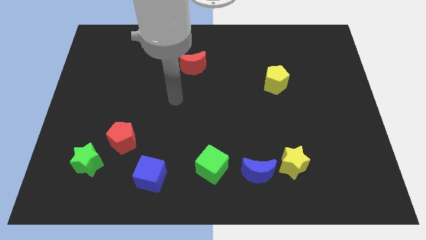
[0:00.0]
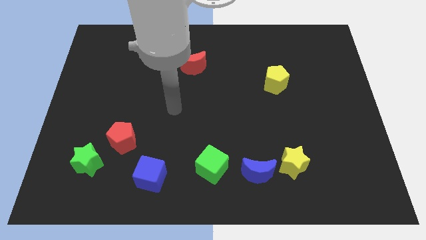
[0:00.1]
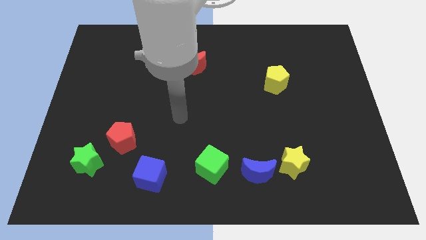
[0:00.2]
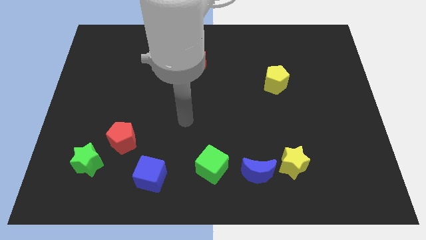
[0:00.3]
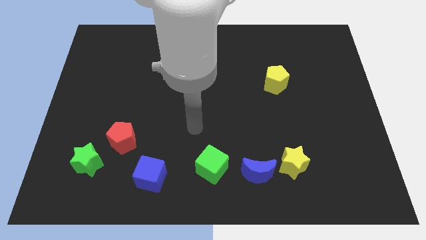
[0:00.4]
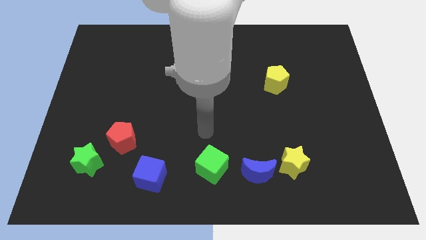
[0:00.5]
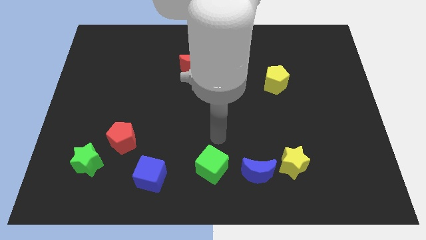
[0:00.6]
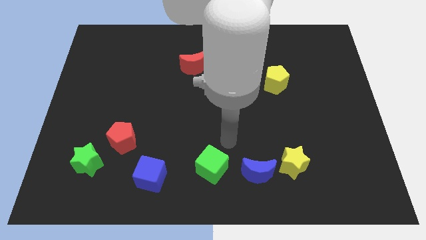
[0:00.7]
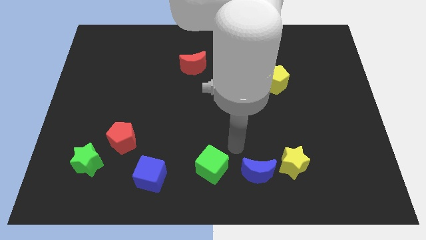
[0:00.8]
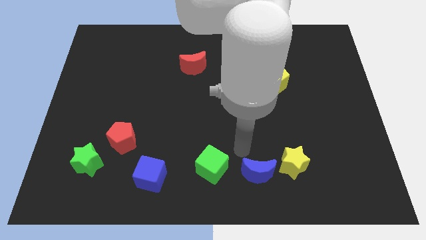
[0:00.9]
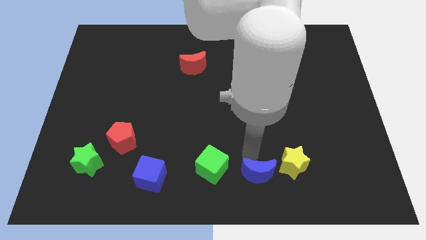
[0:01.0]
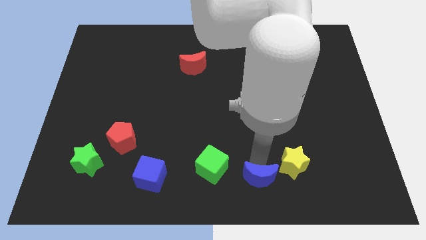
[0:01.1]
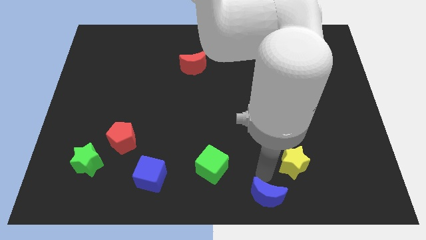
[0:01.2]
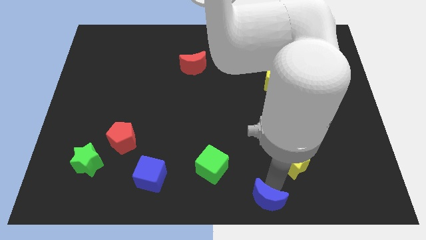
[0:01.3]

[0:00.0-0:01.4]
pull the yellow star apart from the blue moon

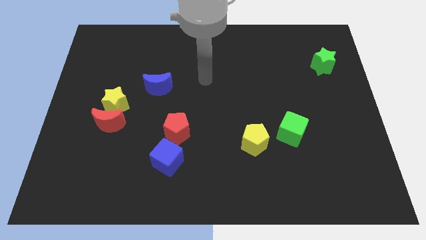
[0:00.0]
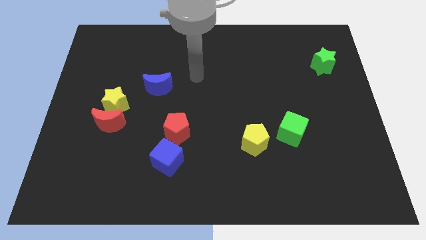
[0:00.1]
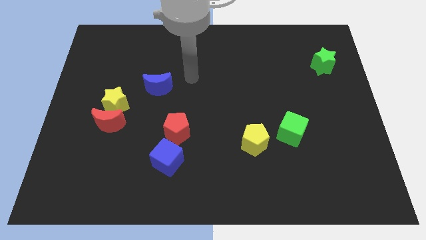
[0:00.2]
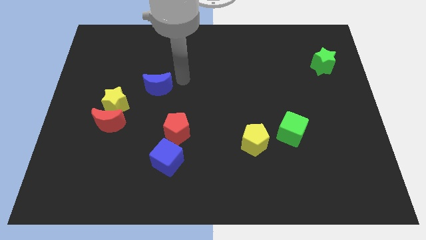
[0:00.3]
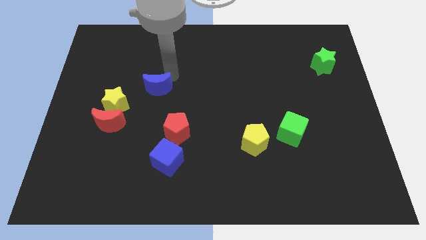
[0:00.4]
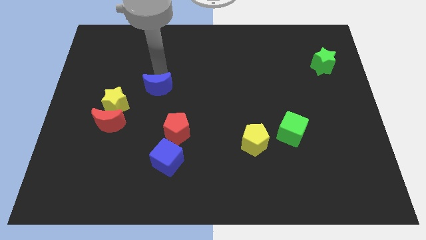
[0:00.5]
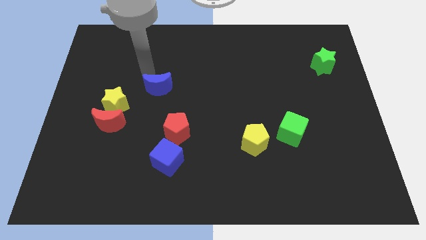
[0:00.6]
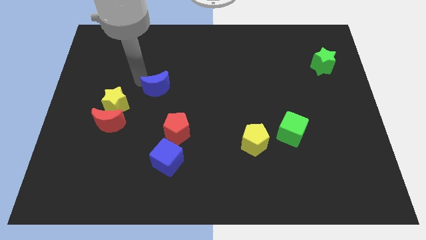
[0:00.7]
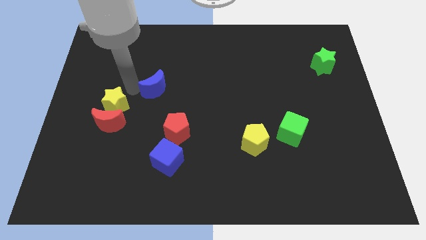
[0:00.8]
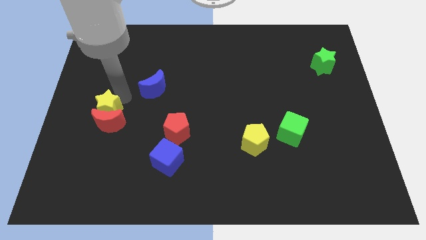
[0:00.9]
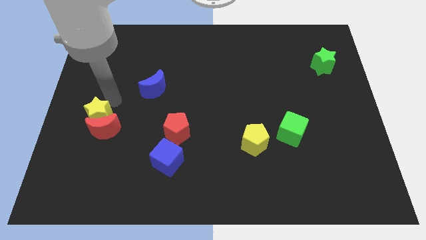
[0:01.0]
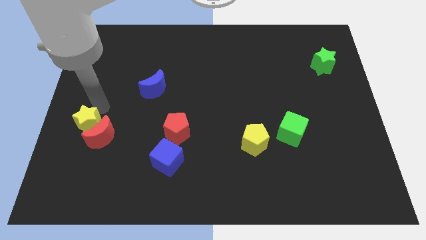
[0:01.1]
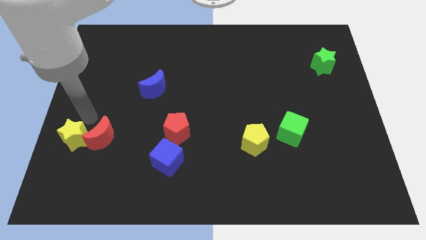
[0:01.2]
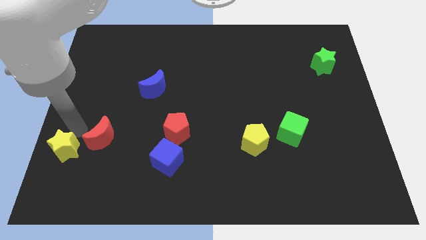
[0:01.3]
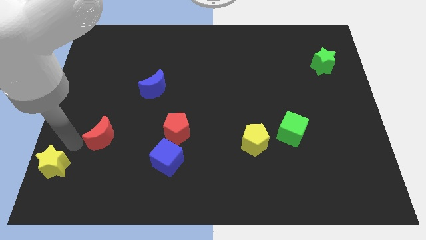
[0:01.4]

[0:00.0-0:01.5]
pull the red moon apart from the yellow star

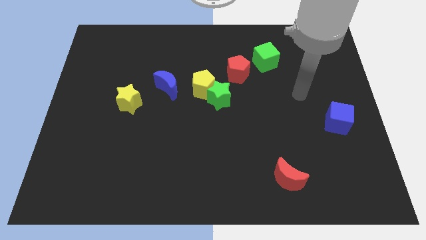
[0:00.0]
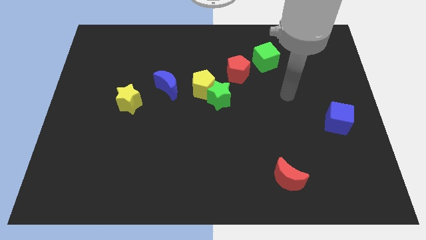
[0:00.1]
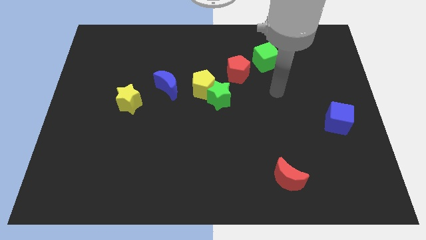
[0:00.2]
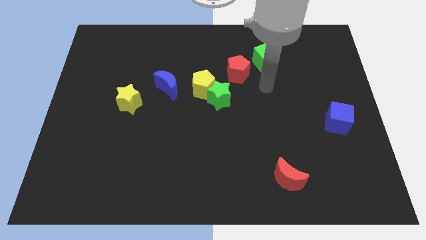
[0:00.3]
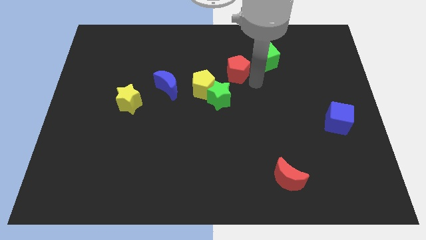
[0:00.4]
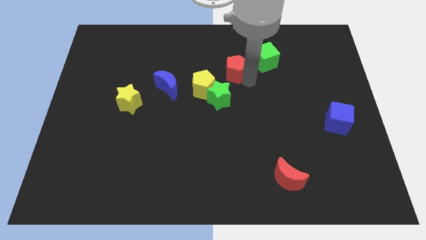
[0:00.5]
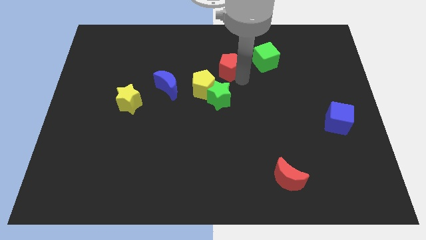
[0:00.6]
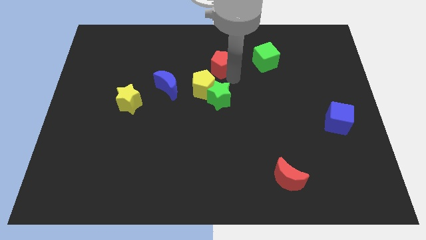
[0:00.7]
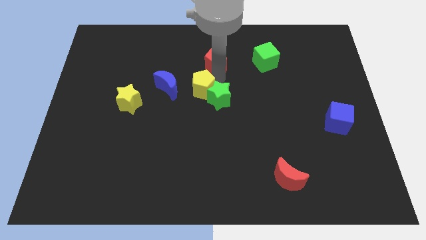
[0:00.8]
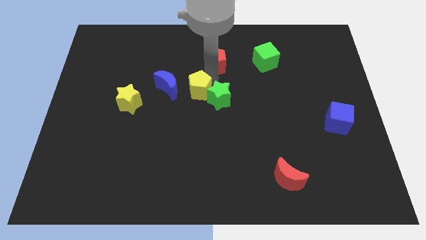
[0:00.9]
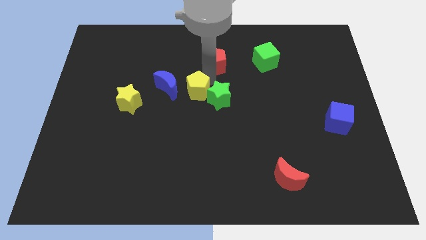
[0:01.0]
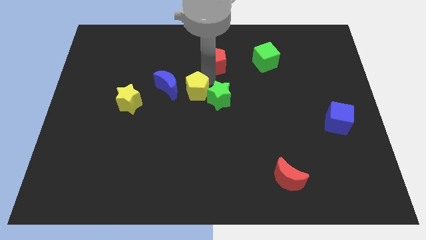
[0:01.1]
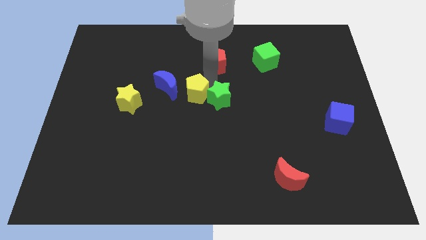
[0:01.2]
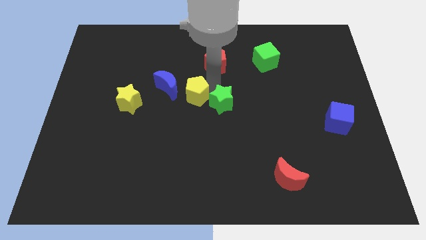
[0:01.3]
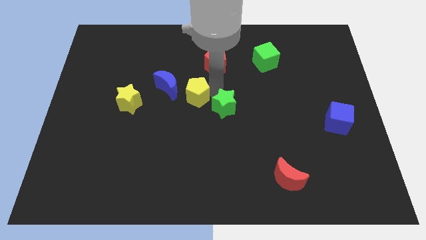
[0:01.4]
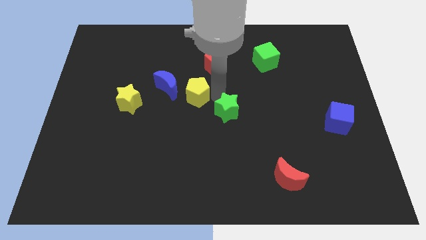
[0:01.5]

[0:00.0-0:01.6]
separate the green star from the yellow pentagon and red pentagon

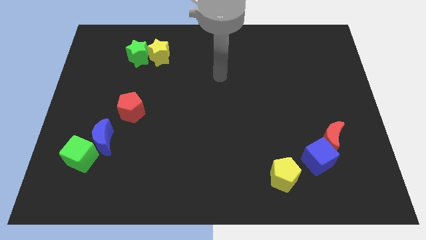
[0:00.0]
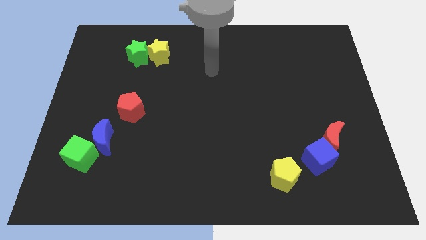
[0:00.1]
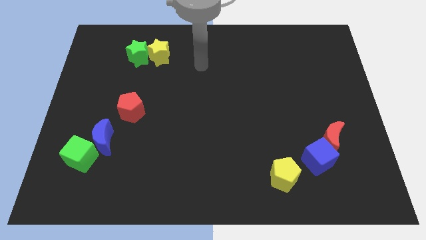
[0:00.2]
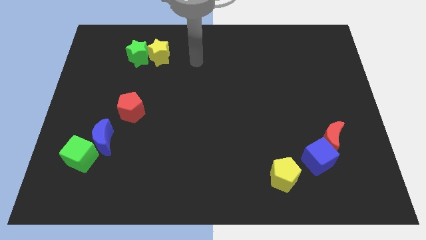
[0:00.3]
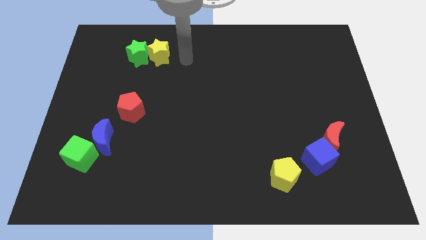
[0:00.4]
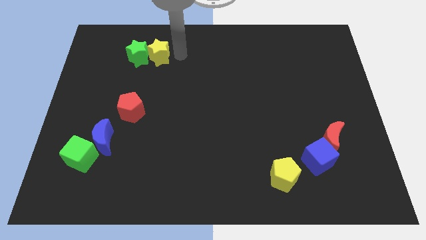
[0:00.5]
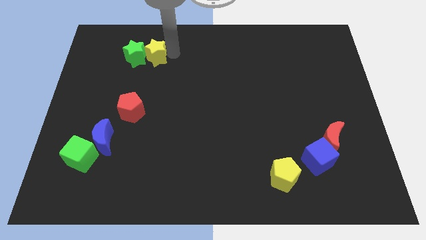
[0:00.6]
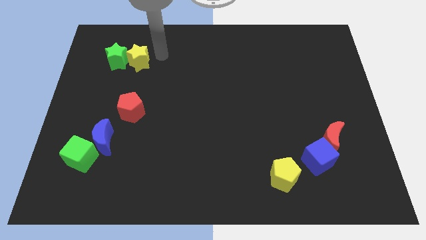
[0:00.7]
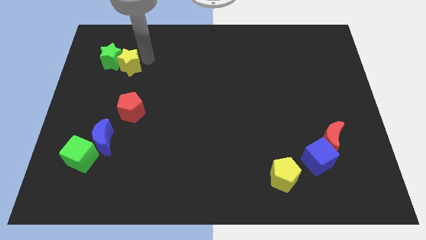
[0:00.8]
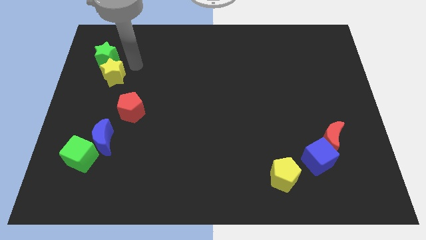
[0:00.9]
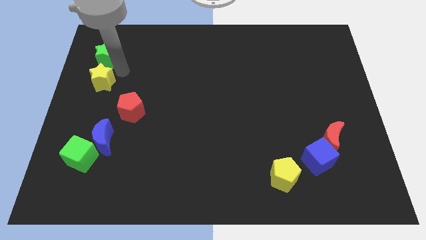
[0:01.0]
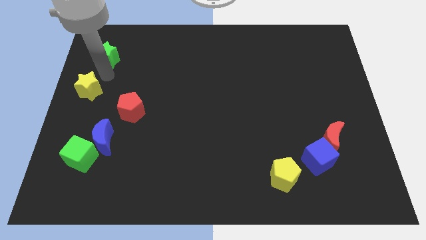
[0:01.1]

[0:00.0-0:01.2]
pull the green star apart from the yellow star

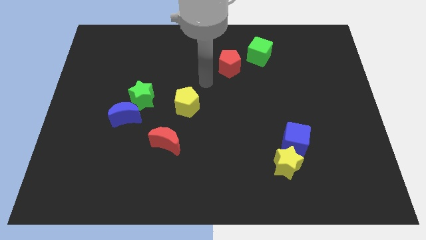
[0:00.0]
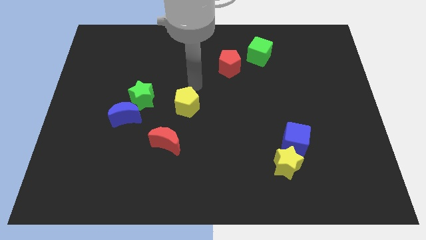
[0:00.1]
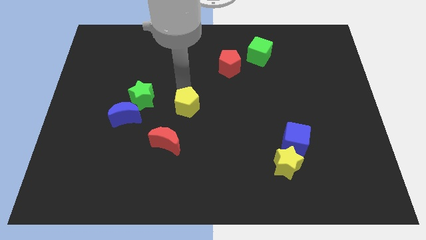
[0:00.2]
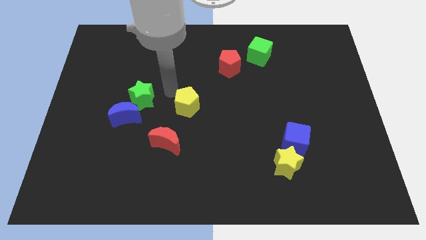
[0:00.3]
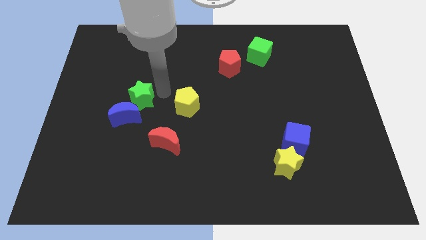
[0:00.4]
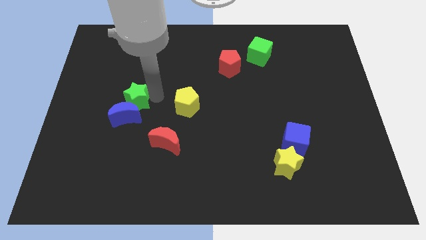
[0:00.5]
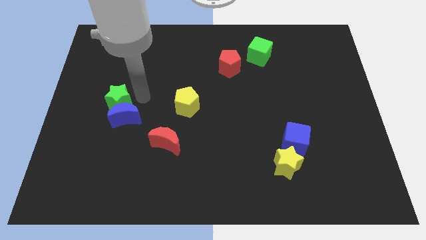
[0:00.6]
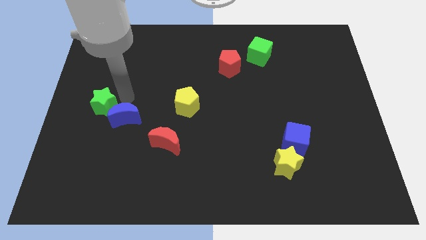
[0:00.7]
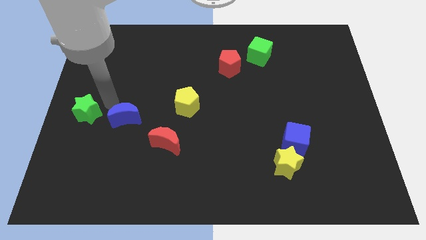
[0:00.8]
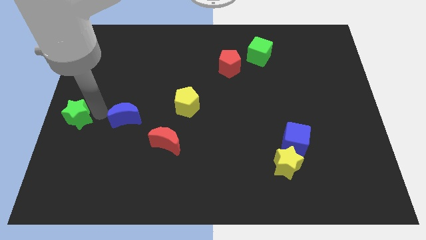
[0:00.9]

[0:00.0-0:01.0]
move the blue moon away from the green star

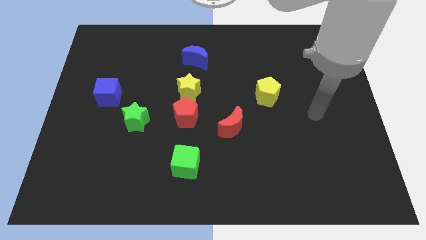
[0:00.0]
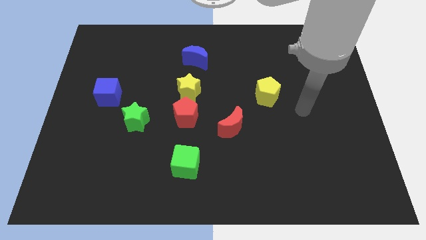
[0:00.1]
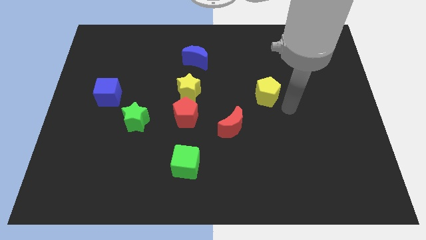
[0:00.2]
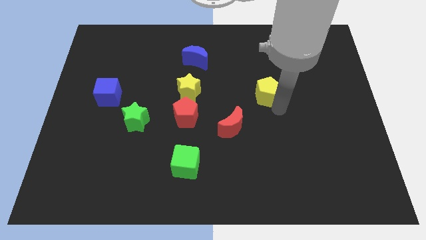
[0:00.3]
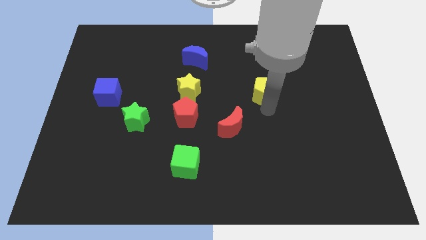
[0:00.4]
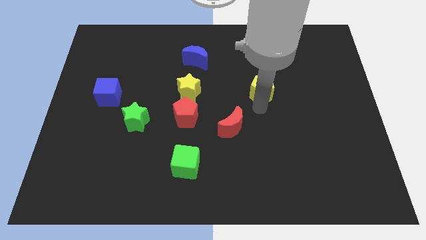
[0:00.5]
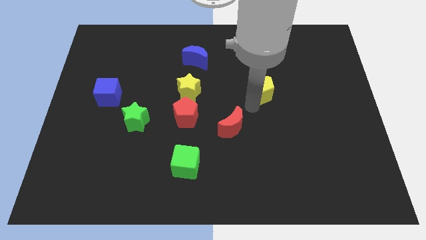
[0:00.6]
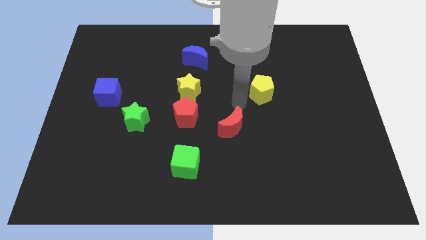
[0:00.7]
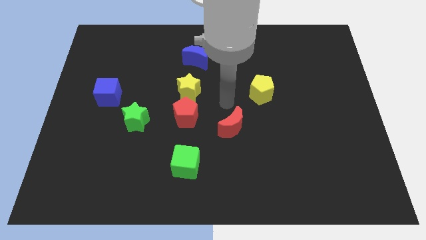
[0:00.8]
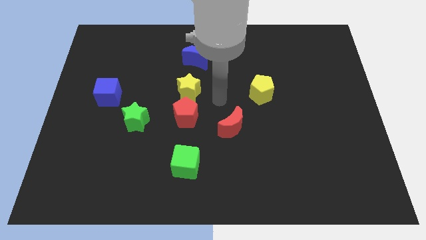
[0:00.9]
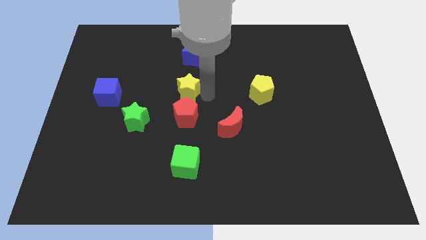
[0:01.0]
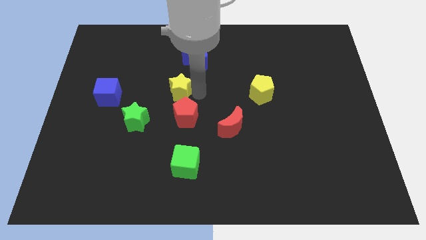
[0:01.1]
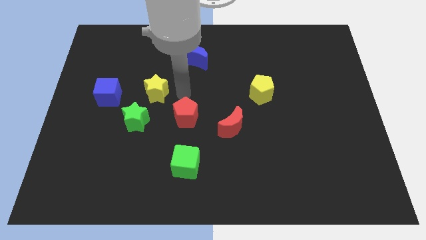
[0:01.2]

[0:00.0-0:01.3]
move the red pentagon away from the yellow star

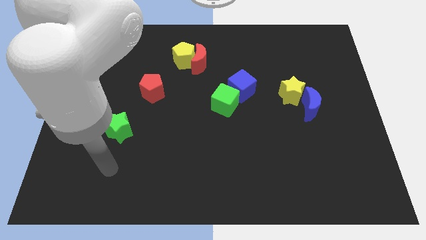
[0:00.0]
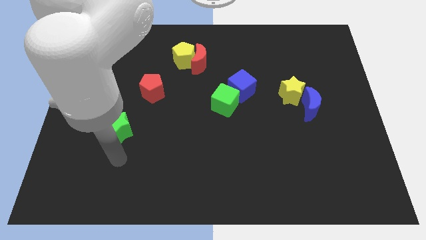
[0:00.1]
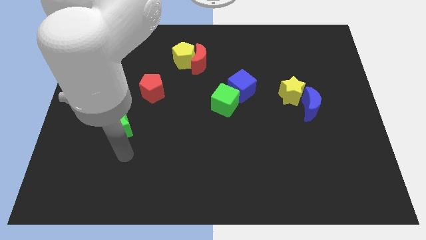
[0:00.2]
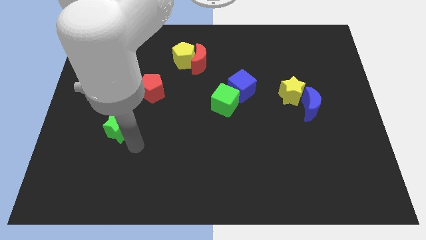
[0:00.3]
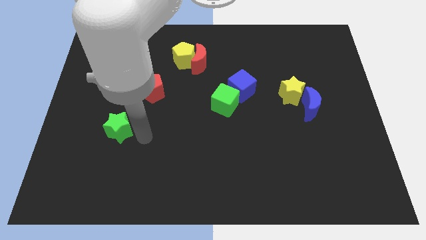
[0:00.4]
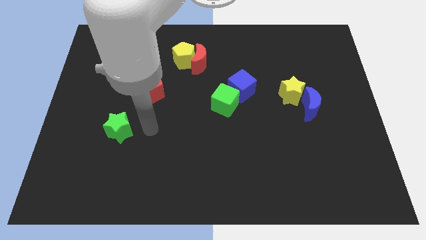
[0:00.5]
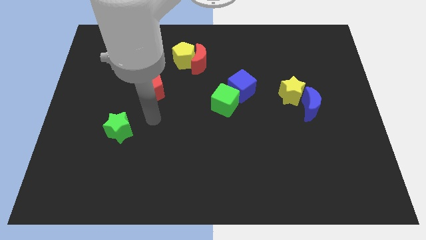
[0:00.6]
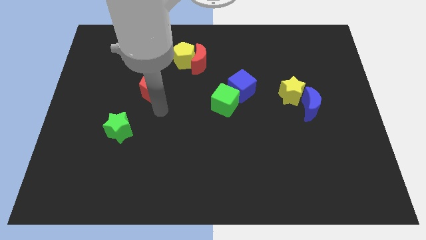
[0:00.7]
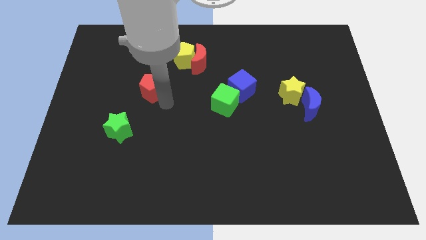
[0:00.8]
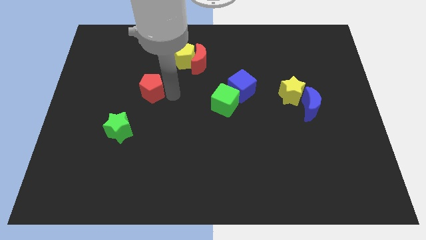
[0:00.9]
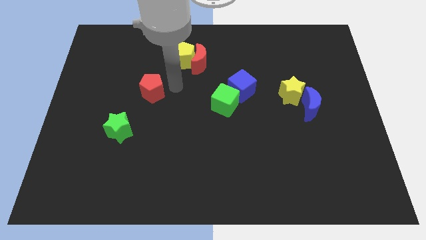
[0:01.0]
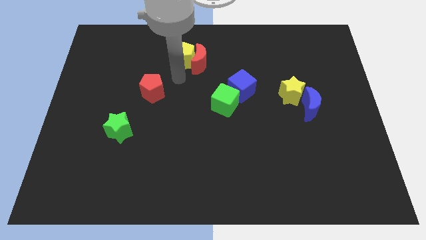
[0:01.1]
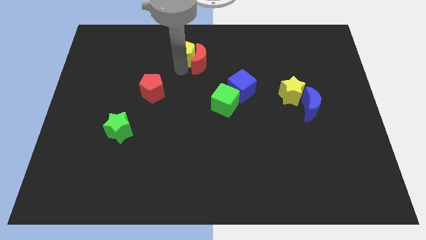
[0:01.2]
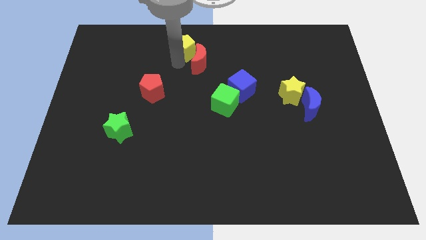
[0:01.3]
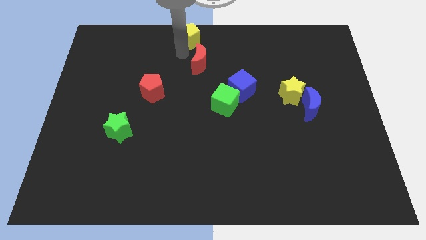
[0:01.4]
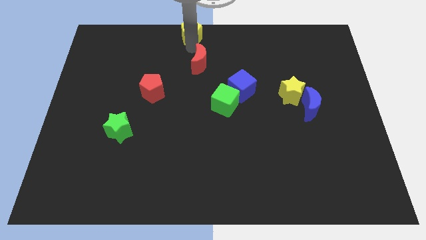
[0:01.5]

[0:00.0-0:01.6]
pull the red moon apart from the yellow pentagon
